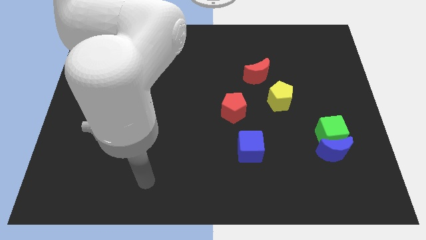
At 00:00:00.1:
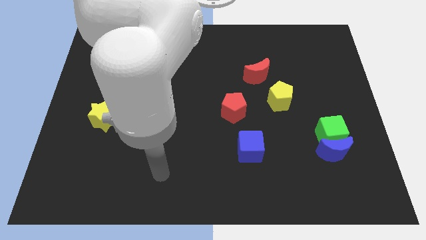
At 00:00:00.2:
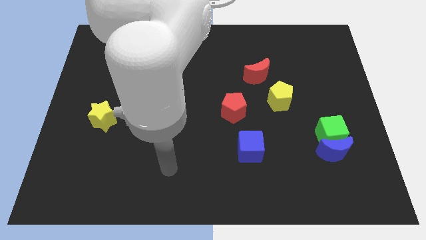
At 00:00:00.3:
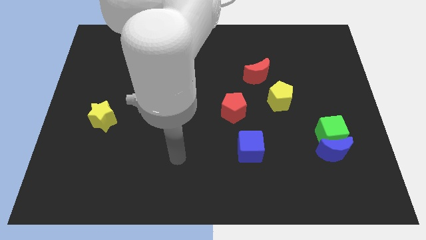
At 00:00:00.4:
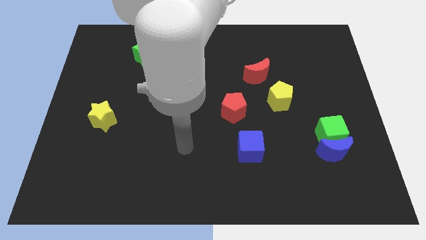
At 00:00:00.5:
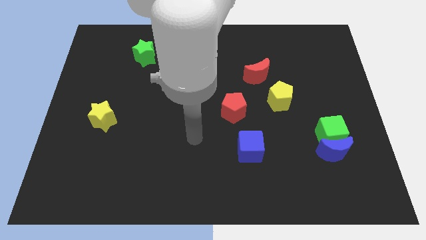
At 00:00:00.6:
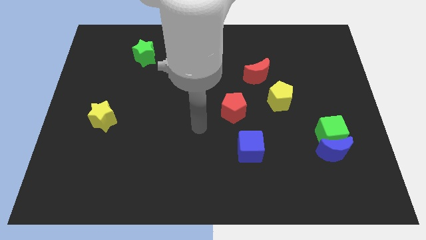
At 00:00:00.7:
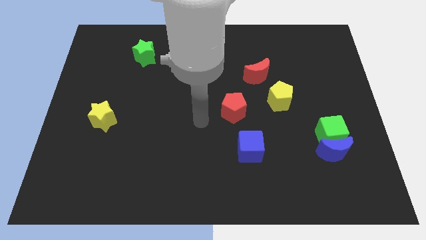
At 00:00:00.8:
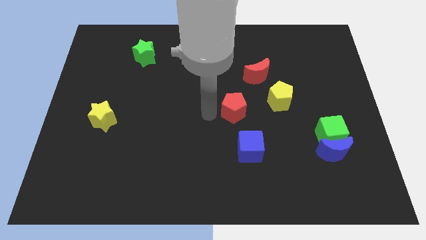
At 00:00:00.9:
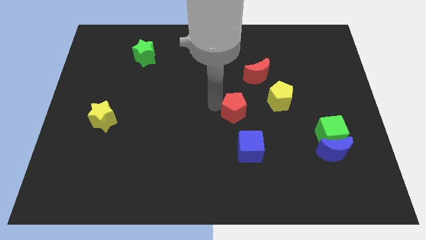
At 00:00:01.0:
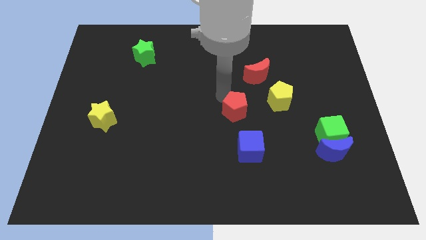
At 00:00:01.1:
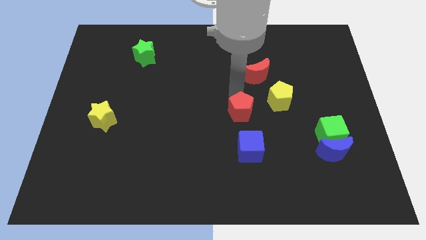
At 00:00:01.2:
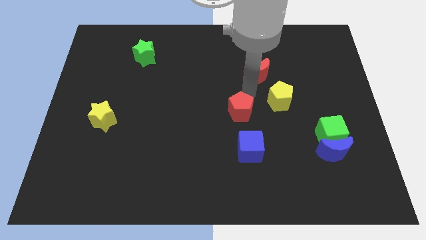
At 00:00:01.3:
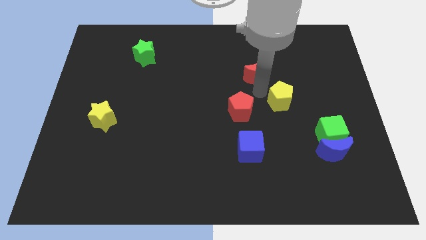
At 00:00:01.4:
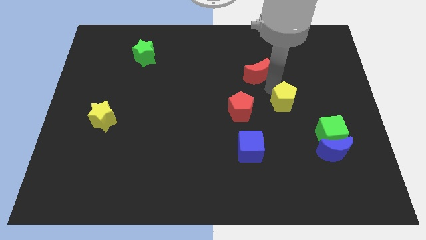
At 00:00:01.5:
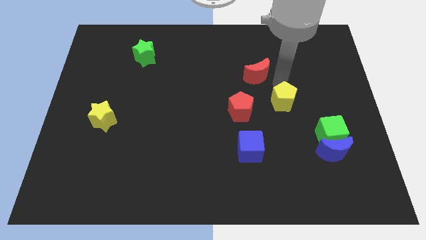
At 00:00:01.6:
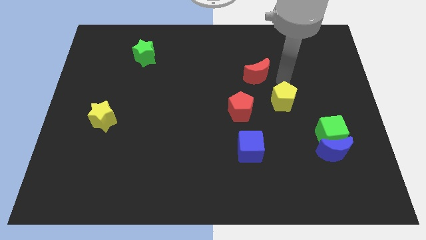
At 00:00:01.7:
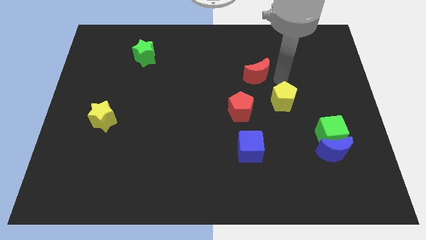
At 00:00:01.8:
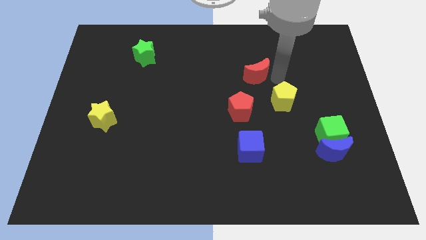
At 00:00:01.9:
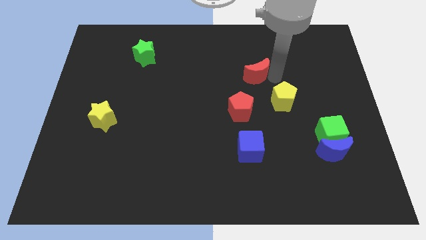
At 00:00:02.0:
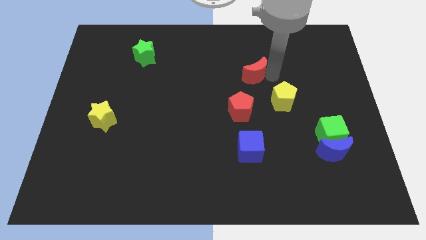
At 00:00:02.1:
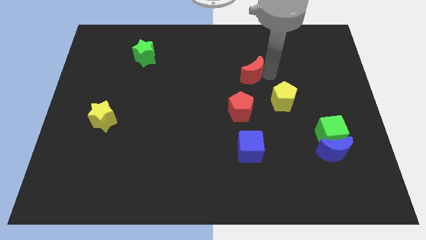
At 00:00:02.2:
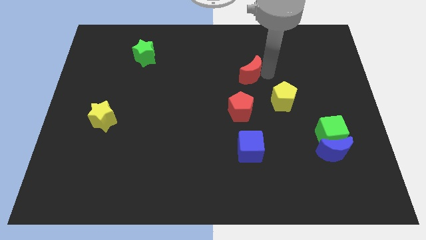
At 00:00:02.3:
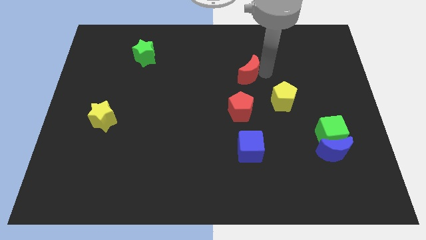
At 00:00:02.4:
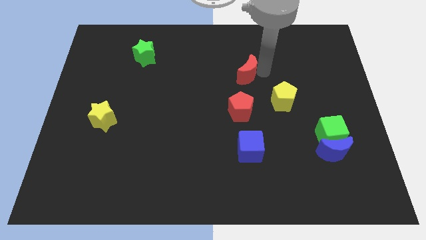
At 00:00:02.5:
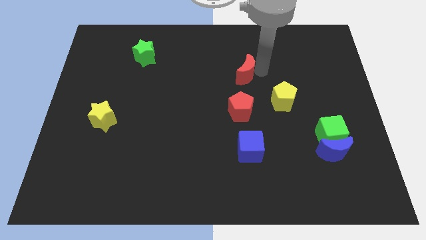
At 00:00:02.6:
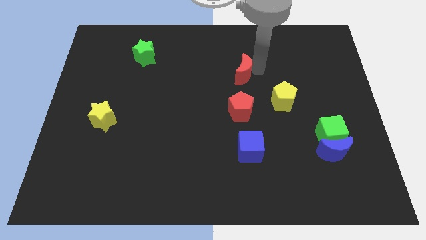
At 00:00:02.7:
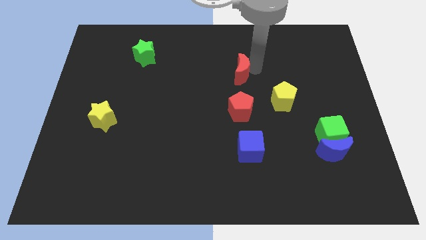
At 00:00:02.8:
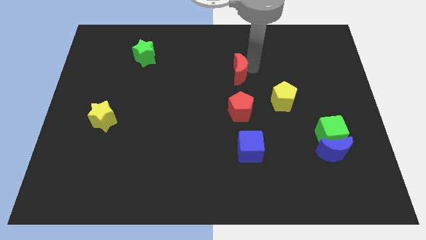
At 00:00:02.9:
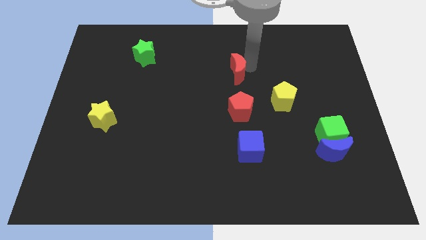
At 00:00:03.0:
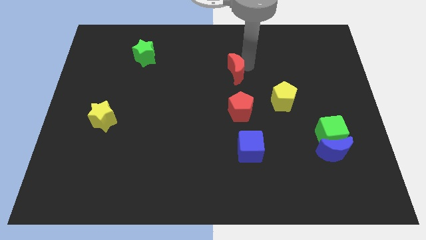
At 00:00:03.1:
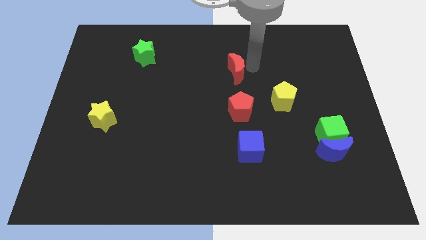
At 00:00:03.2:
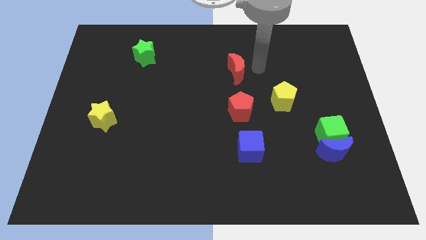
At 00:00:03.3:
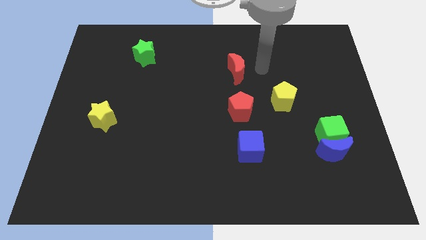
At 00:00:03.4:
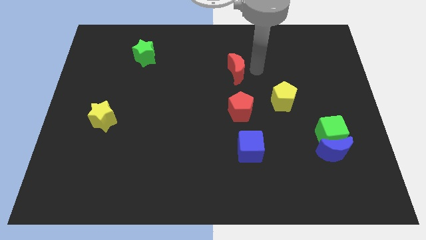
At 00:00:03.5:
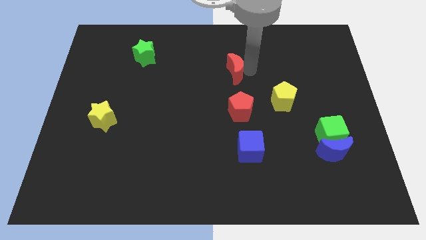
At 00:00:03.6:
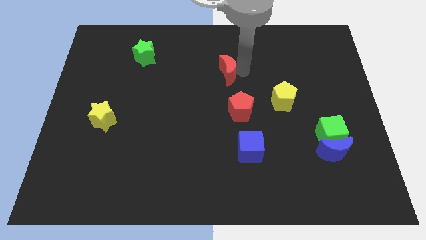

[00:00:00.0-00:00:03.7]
slightly slide the red moon to the left

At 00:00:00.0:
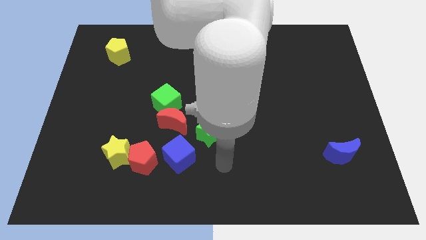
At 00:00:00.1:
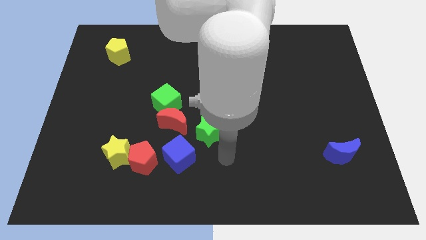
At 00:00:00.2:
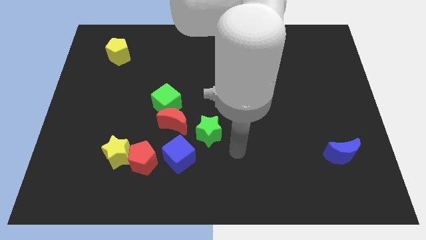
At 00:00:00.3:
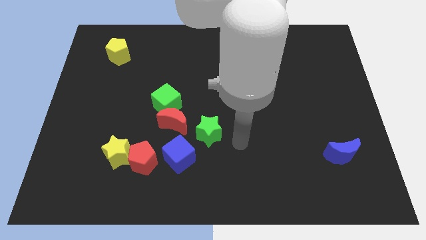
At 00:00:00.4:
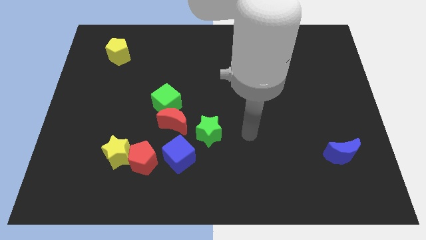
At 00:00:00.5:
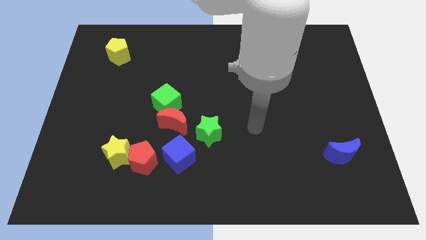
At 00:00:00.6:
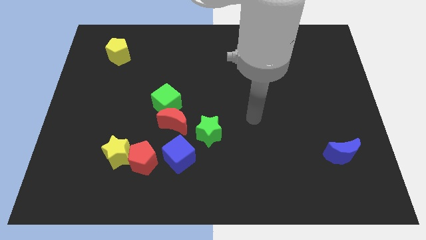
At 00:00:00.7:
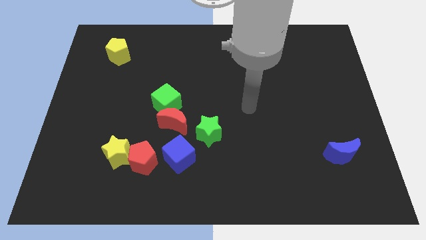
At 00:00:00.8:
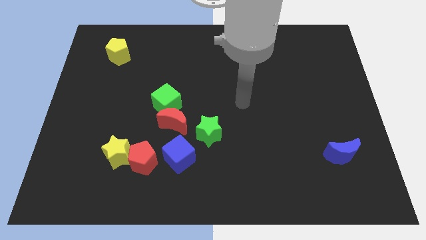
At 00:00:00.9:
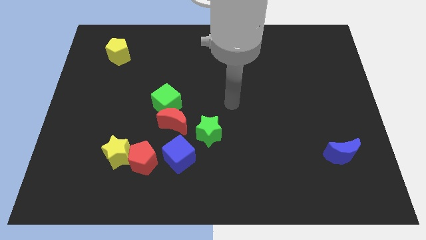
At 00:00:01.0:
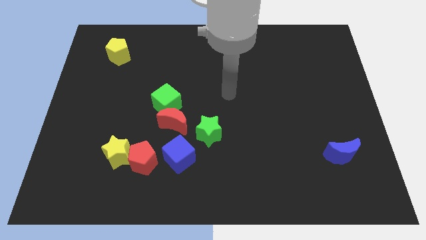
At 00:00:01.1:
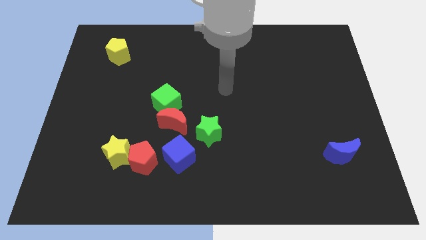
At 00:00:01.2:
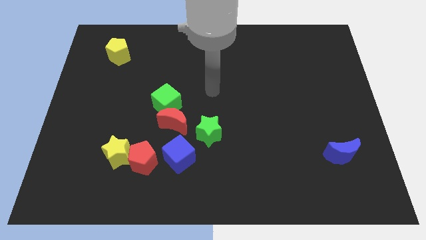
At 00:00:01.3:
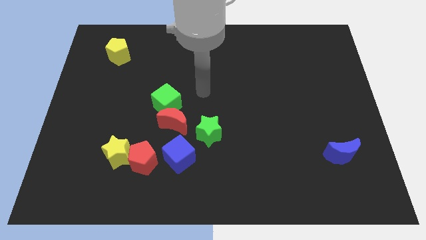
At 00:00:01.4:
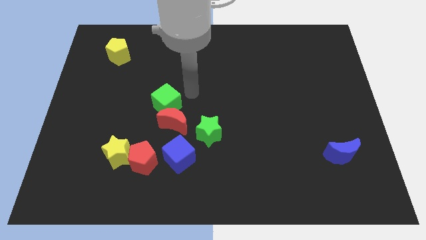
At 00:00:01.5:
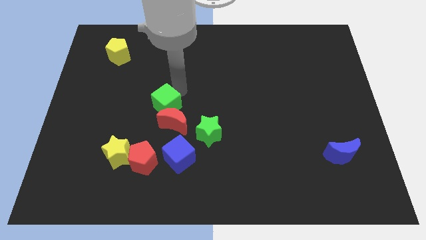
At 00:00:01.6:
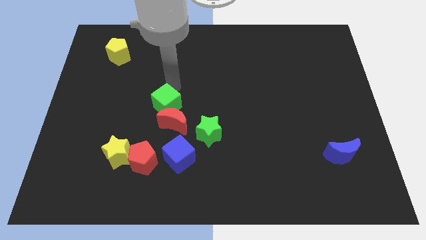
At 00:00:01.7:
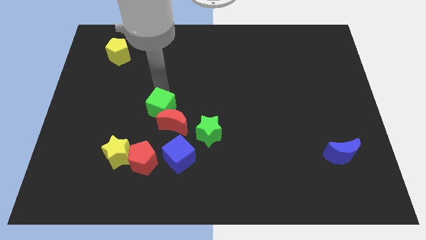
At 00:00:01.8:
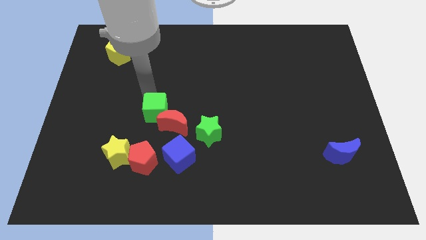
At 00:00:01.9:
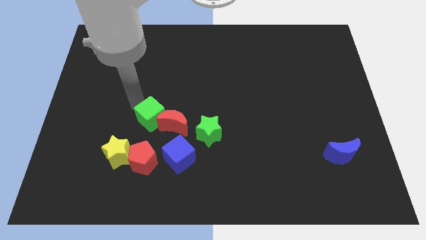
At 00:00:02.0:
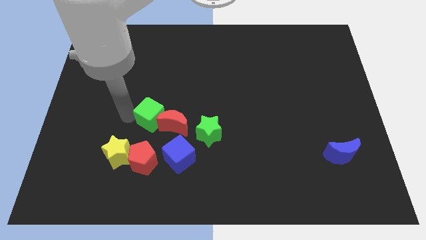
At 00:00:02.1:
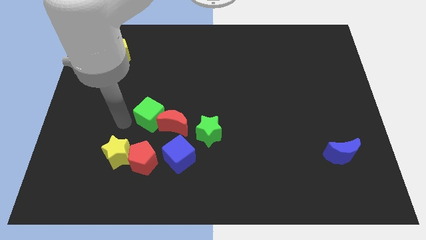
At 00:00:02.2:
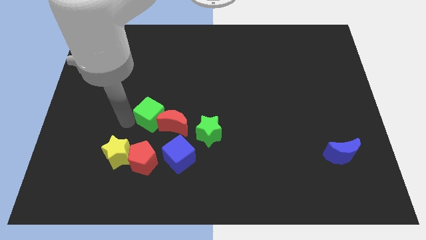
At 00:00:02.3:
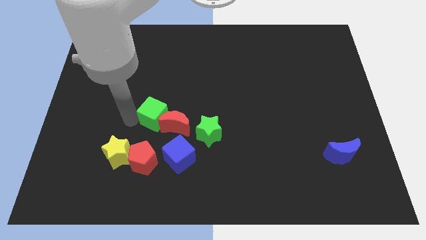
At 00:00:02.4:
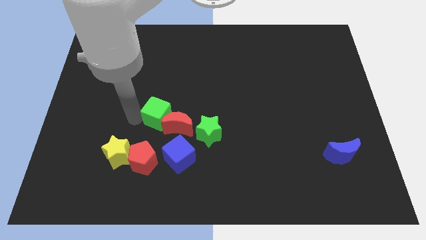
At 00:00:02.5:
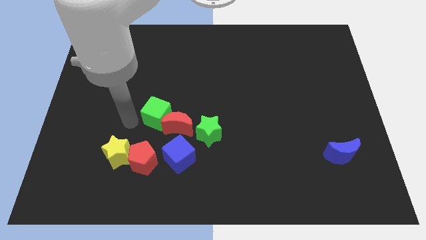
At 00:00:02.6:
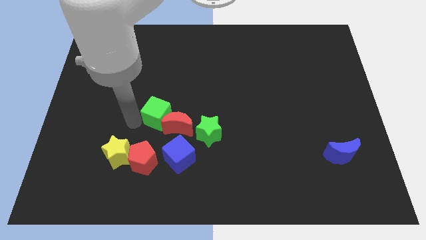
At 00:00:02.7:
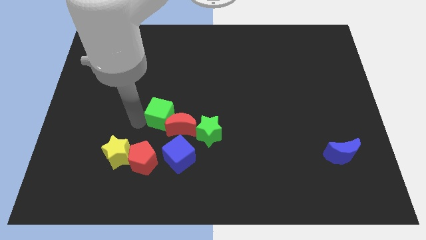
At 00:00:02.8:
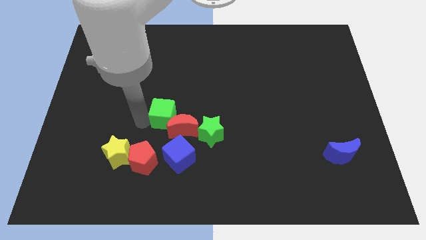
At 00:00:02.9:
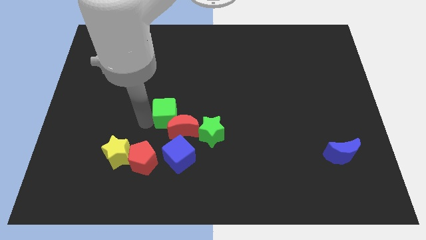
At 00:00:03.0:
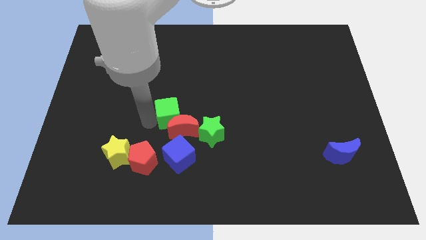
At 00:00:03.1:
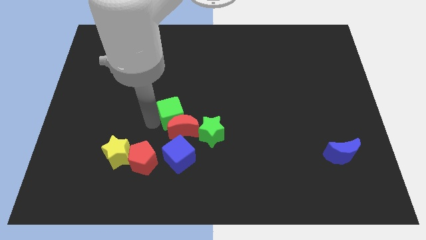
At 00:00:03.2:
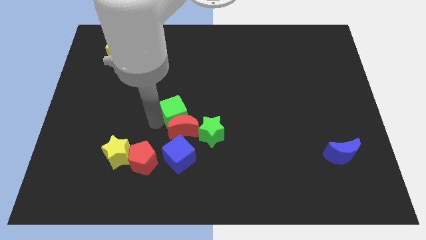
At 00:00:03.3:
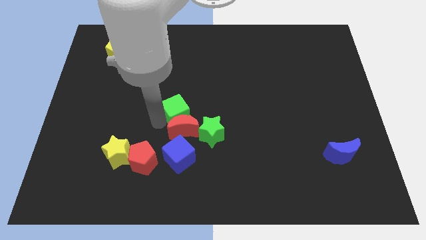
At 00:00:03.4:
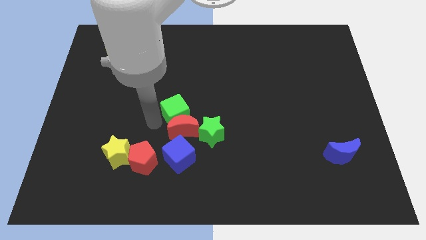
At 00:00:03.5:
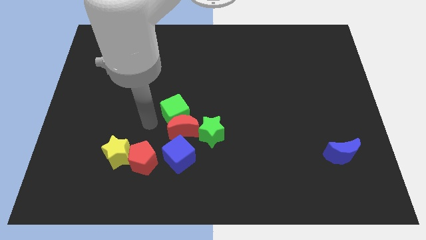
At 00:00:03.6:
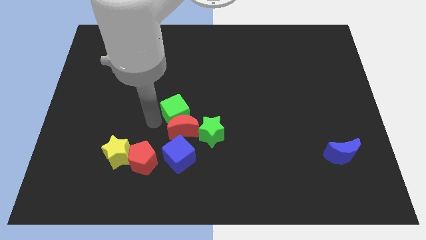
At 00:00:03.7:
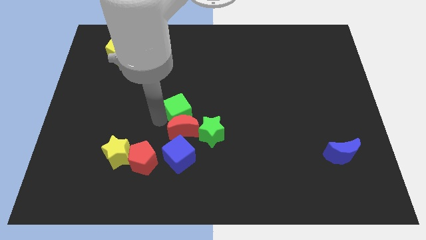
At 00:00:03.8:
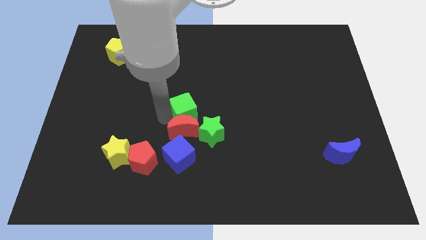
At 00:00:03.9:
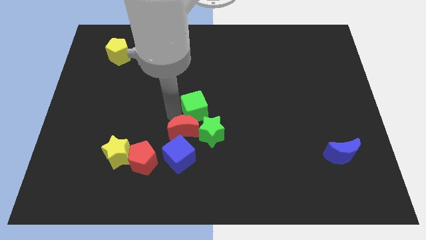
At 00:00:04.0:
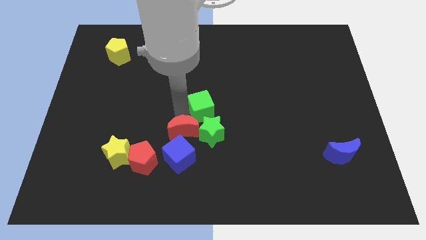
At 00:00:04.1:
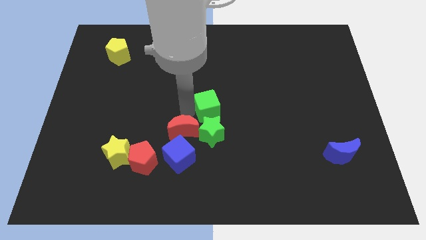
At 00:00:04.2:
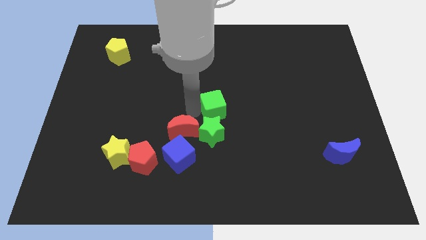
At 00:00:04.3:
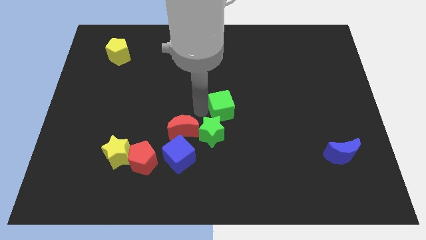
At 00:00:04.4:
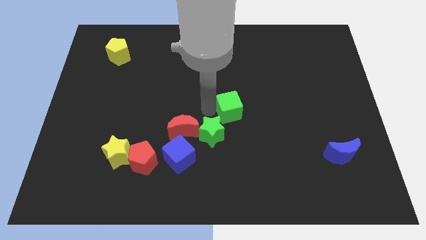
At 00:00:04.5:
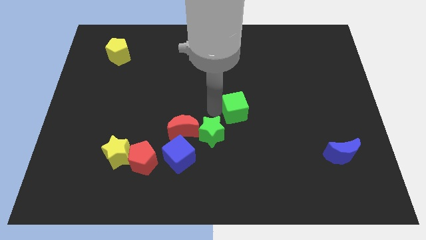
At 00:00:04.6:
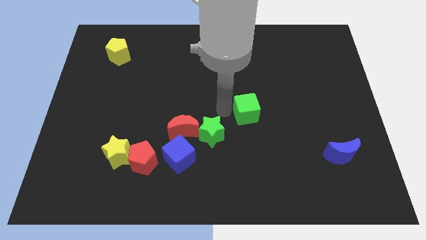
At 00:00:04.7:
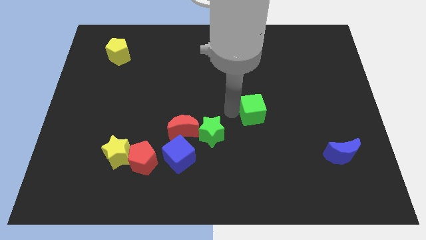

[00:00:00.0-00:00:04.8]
slide the green cube right
